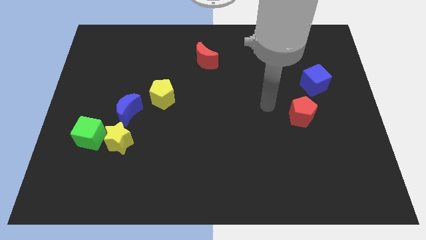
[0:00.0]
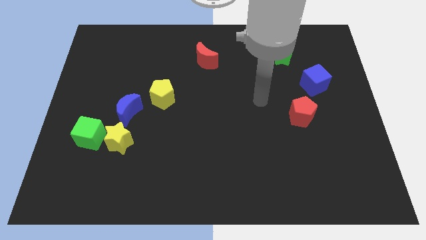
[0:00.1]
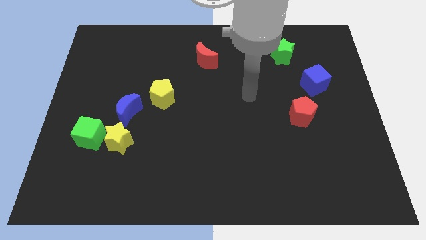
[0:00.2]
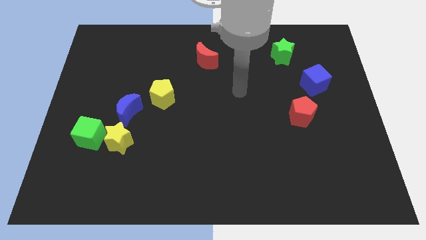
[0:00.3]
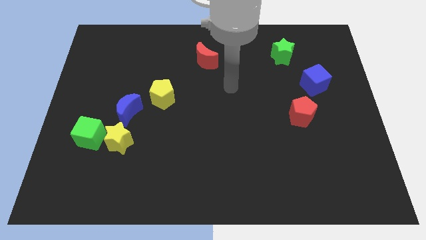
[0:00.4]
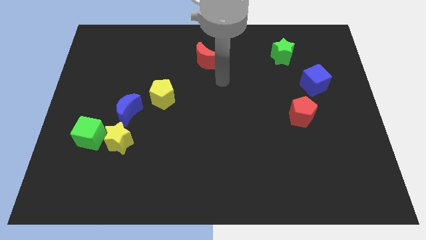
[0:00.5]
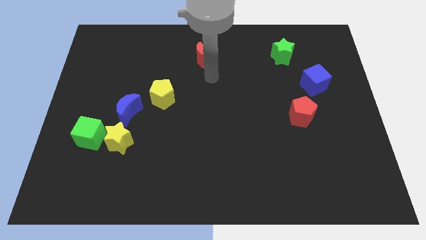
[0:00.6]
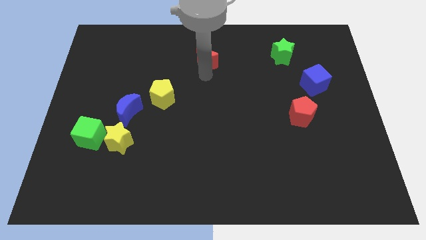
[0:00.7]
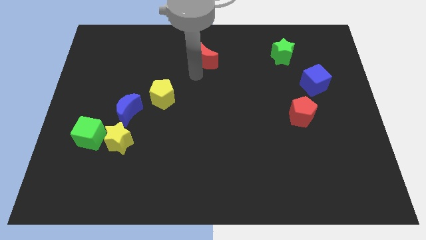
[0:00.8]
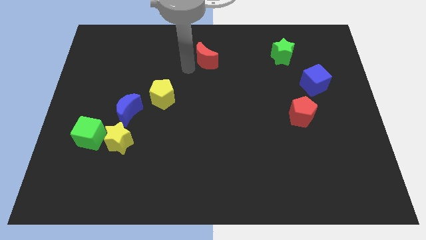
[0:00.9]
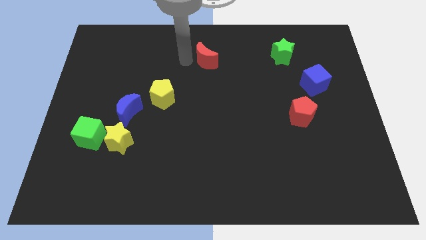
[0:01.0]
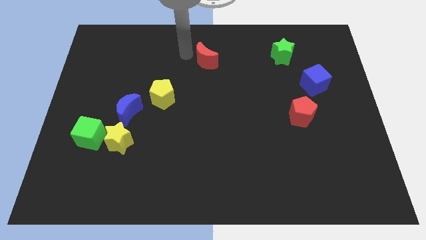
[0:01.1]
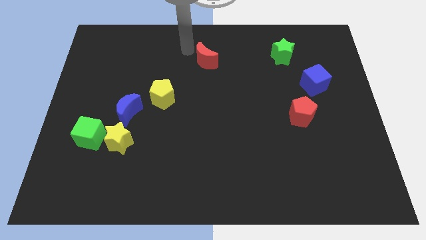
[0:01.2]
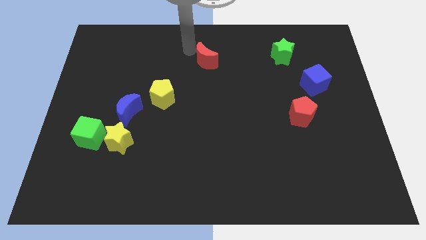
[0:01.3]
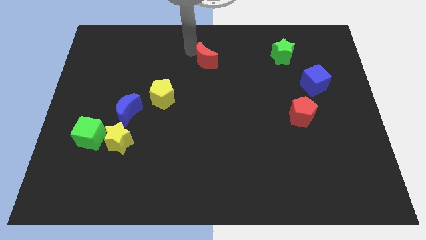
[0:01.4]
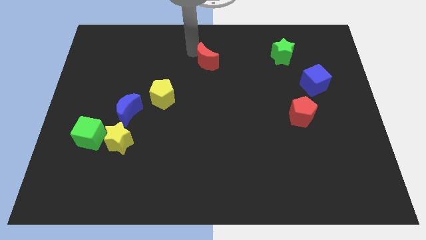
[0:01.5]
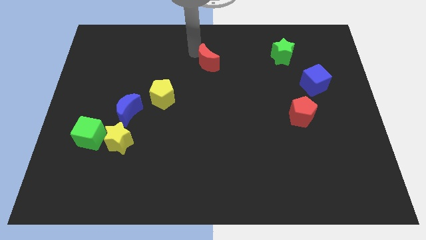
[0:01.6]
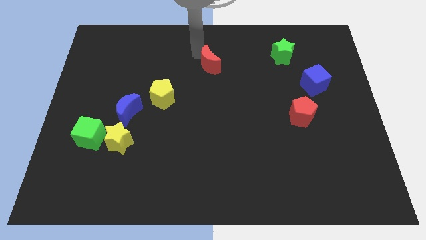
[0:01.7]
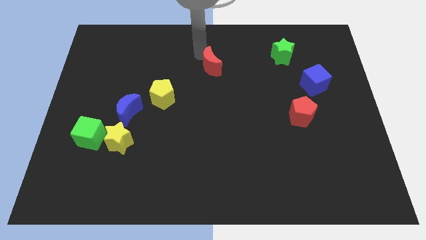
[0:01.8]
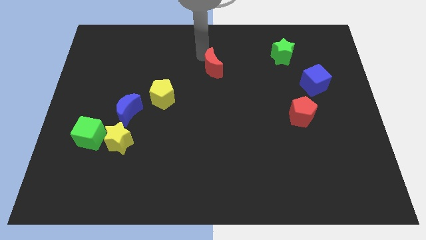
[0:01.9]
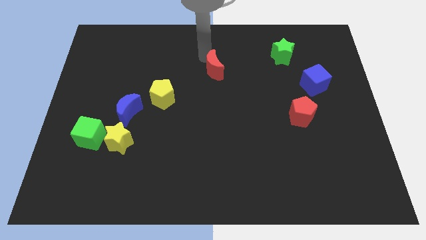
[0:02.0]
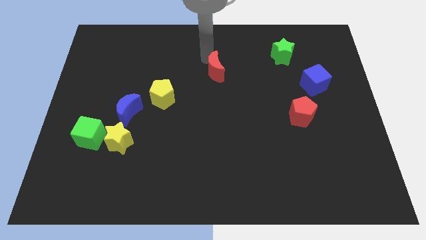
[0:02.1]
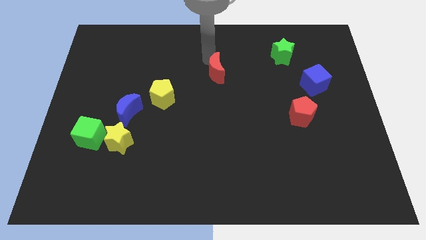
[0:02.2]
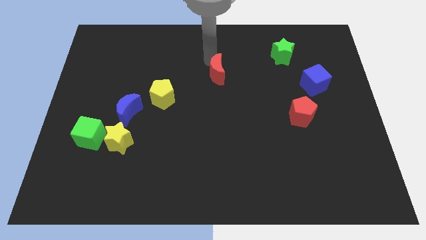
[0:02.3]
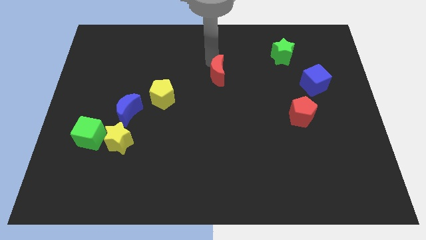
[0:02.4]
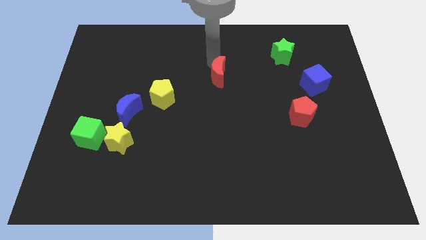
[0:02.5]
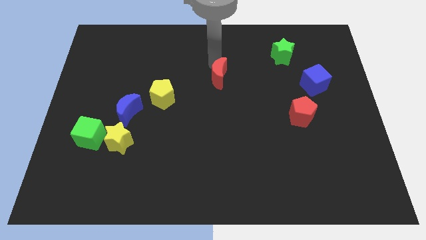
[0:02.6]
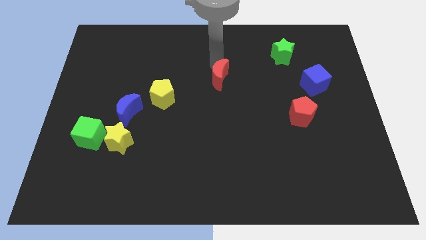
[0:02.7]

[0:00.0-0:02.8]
slide the red moon downwards and then right slightly

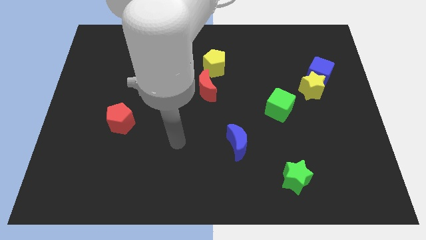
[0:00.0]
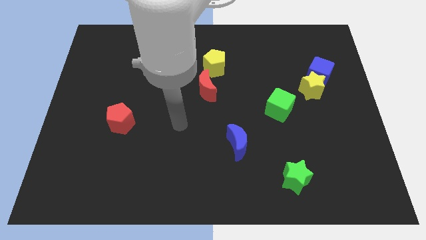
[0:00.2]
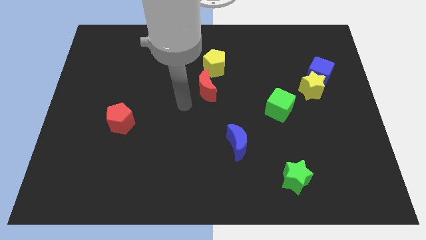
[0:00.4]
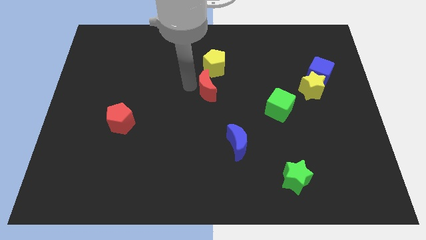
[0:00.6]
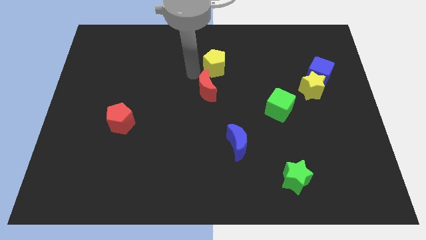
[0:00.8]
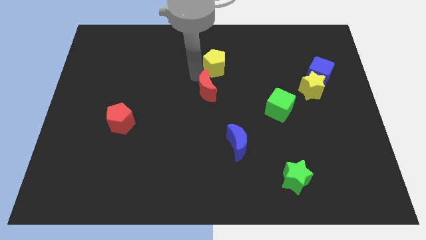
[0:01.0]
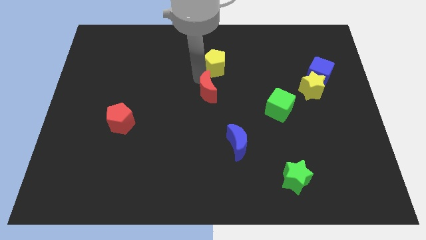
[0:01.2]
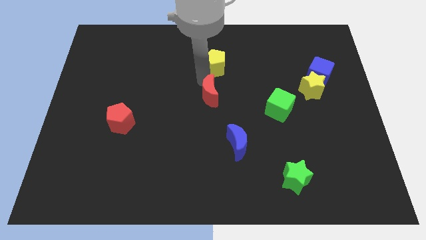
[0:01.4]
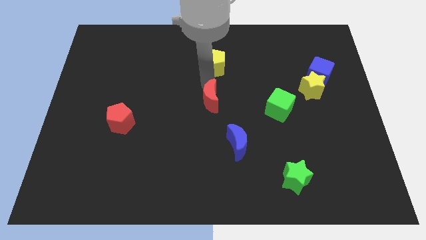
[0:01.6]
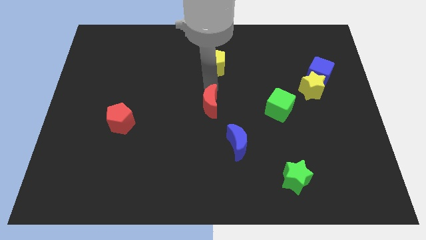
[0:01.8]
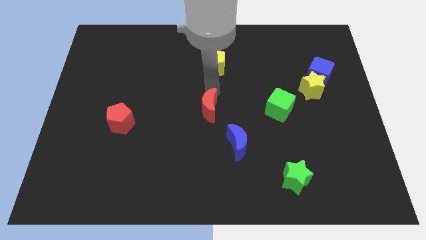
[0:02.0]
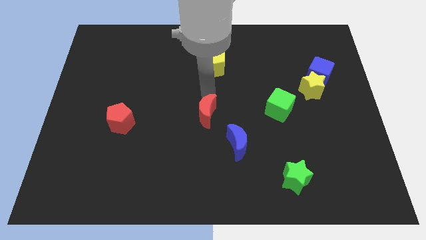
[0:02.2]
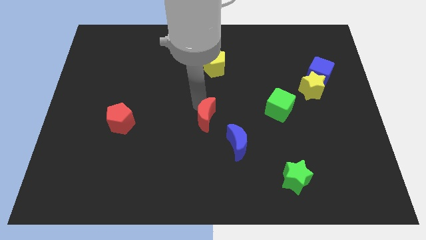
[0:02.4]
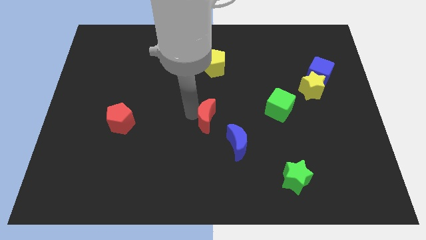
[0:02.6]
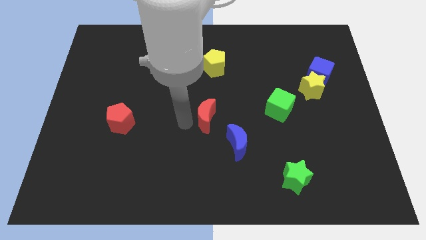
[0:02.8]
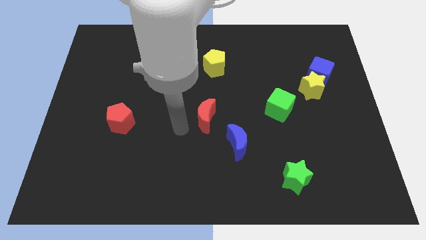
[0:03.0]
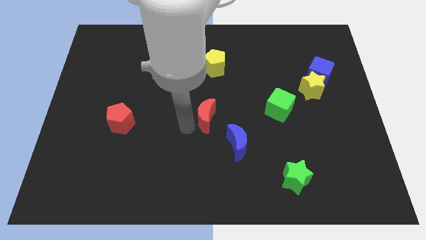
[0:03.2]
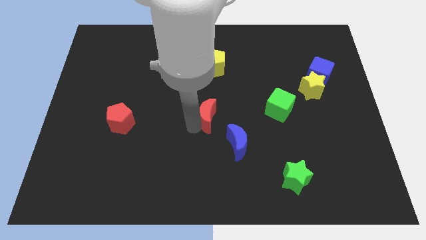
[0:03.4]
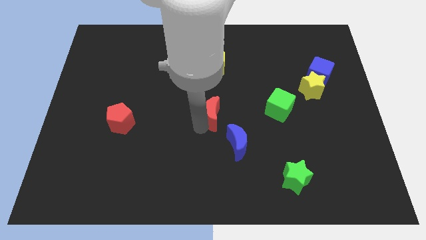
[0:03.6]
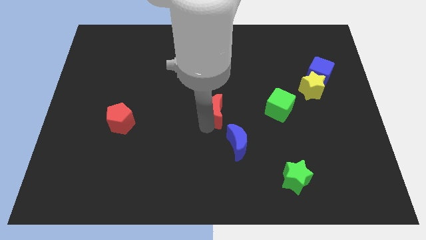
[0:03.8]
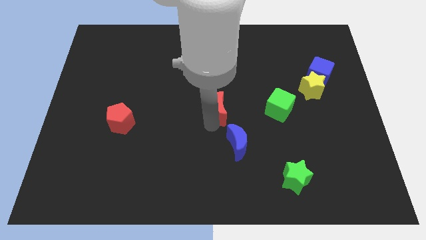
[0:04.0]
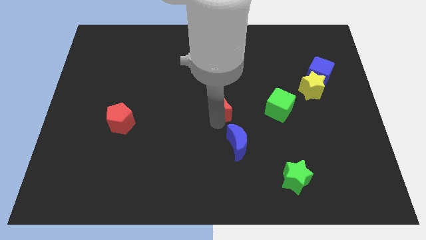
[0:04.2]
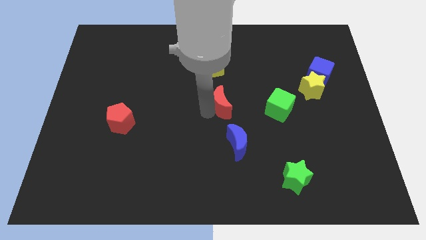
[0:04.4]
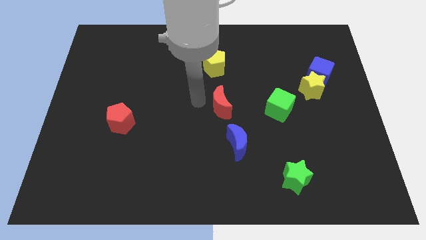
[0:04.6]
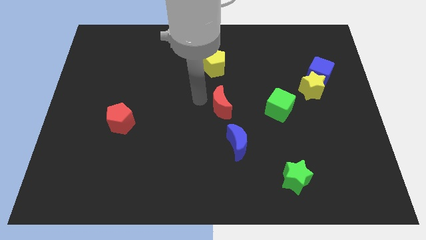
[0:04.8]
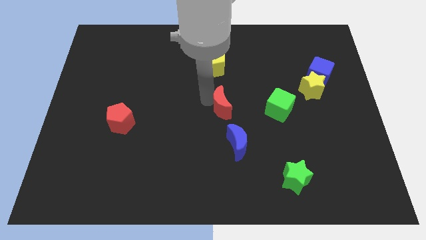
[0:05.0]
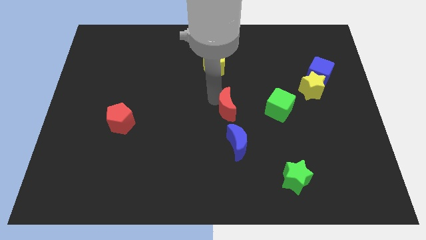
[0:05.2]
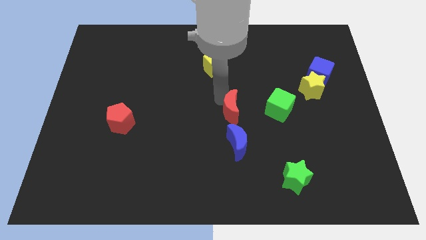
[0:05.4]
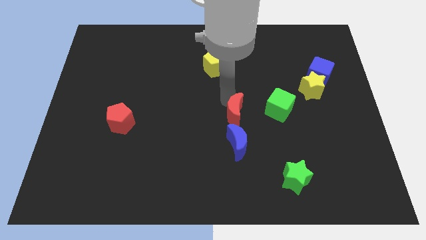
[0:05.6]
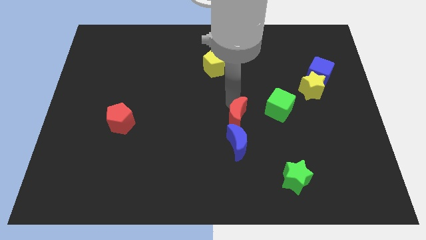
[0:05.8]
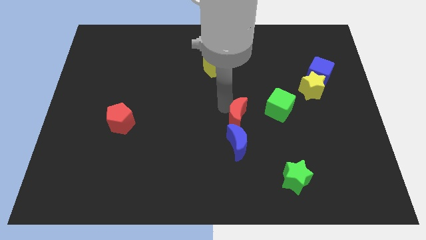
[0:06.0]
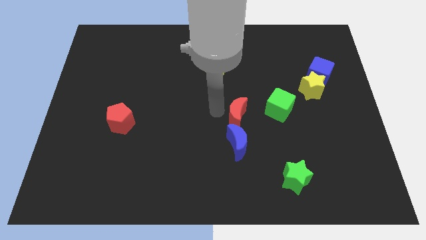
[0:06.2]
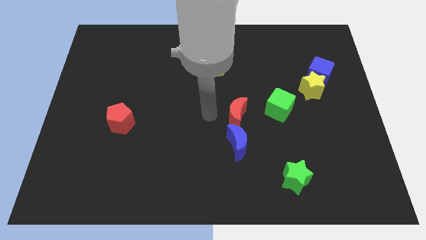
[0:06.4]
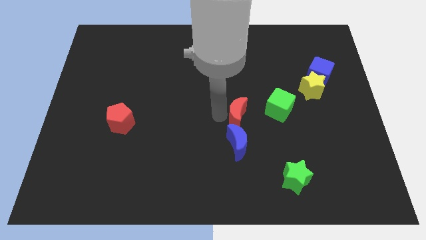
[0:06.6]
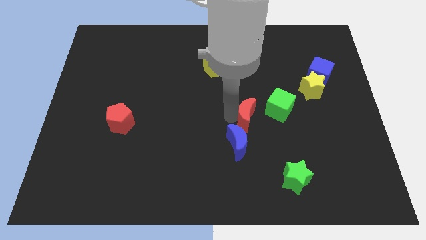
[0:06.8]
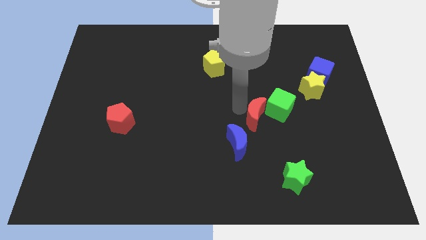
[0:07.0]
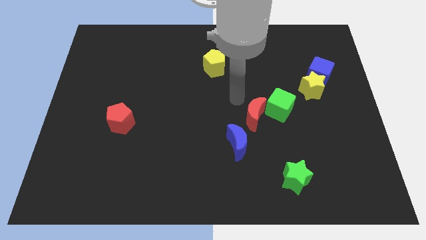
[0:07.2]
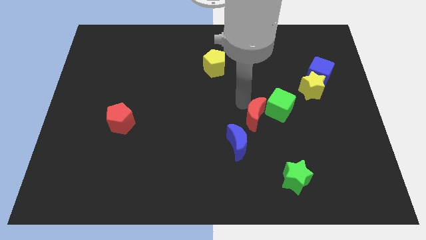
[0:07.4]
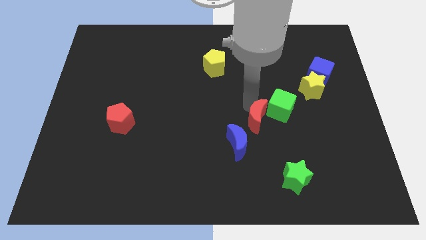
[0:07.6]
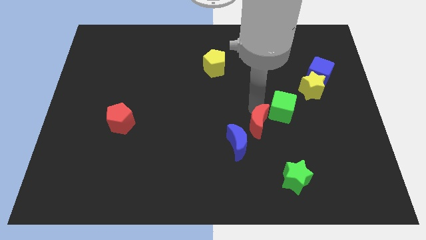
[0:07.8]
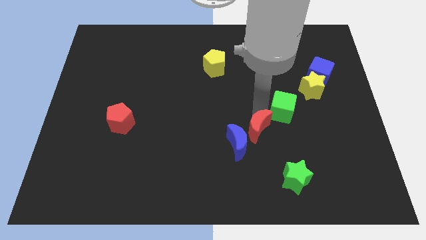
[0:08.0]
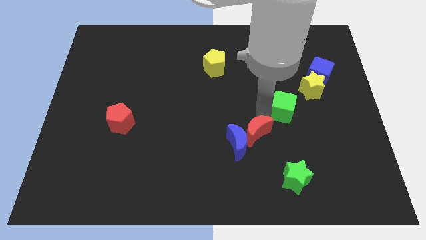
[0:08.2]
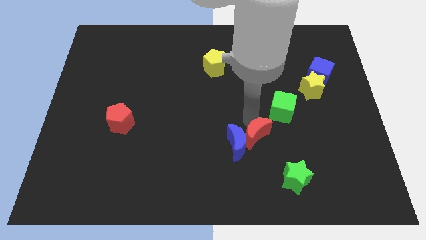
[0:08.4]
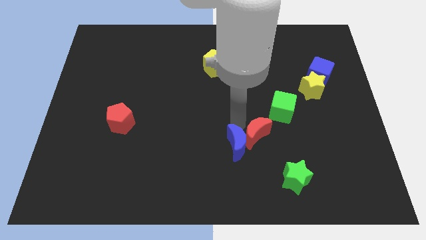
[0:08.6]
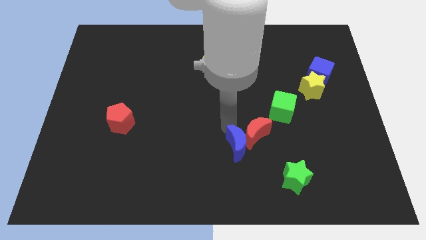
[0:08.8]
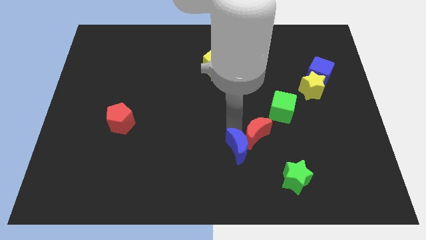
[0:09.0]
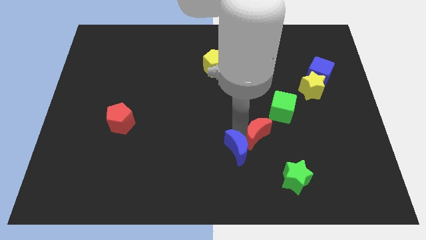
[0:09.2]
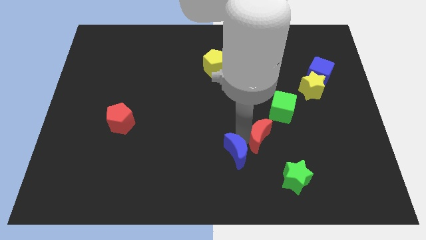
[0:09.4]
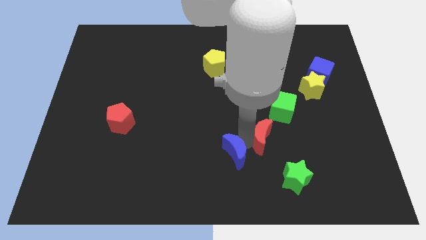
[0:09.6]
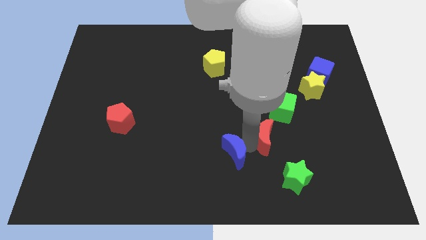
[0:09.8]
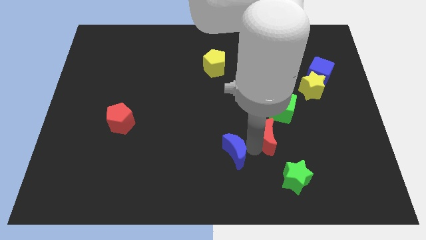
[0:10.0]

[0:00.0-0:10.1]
push the red moon diagonally down and right

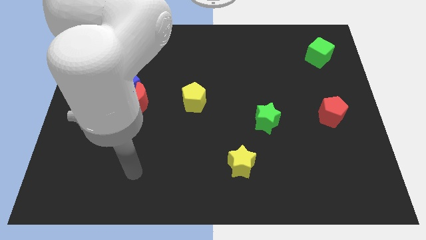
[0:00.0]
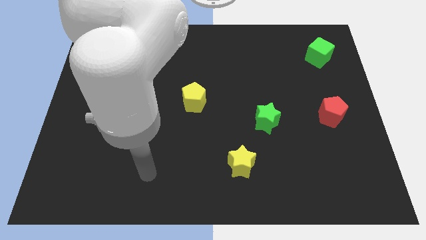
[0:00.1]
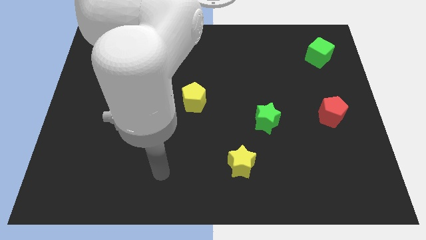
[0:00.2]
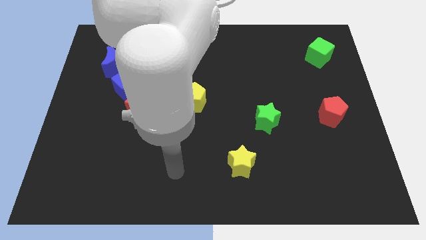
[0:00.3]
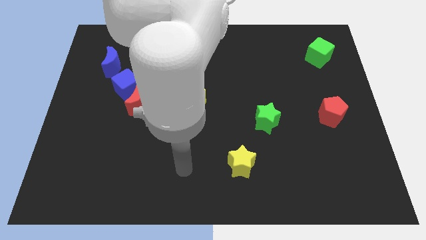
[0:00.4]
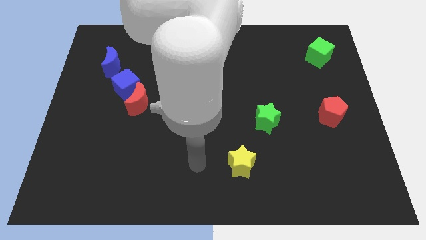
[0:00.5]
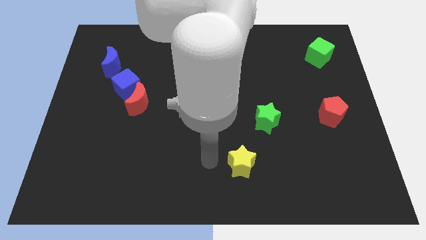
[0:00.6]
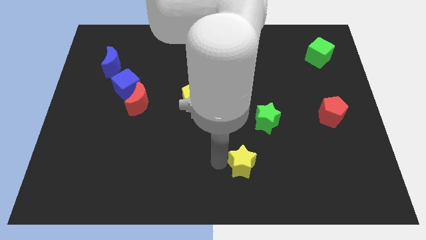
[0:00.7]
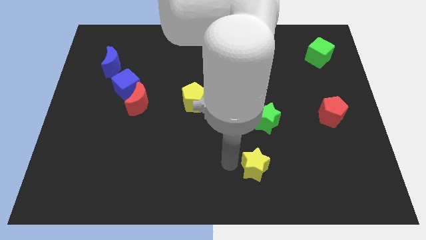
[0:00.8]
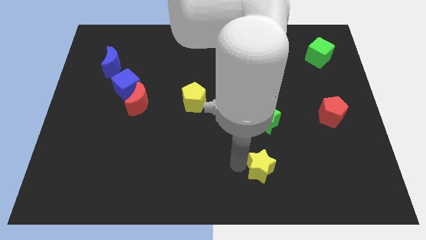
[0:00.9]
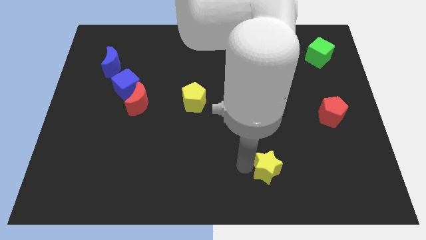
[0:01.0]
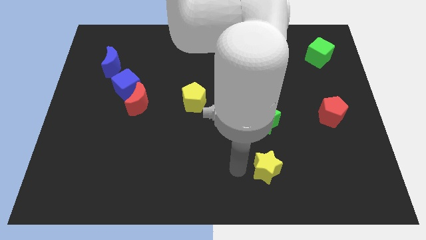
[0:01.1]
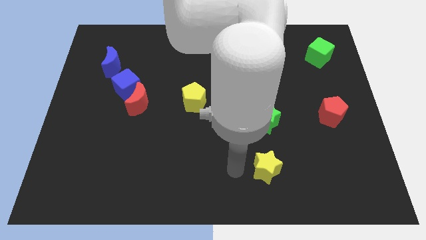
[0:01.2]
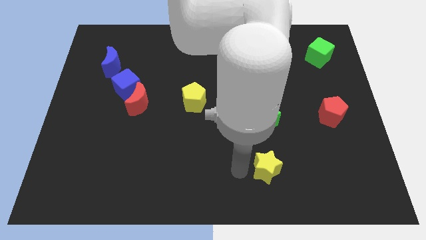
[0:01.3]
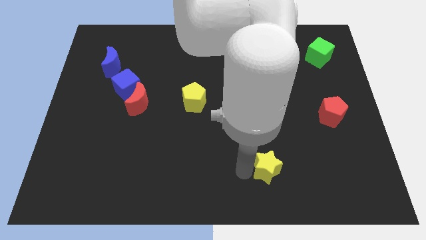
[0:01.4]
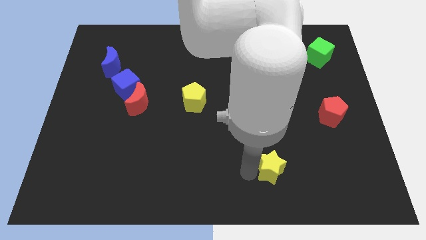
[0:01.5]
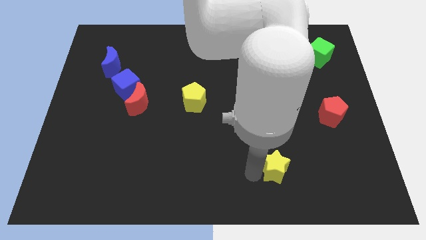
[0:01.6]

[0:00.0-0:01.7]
push the yellow star somewhat right
